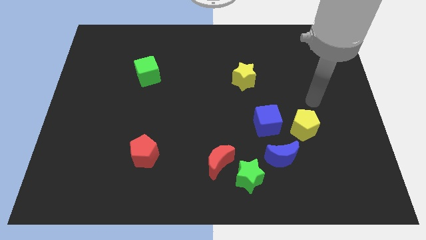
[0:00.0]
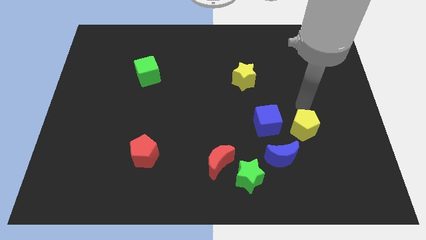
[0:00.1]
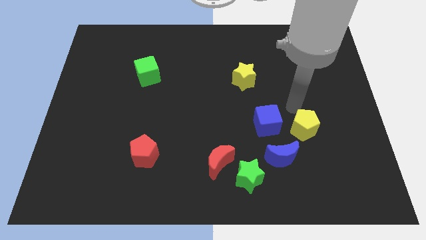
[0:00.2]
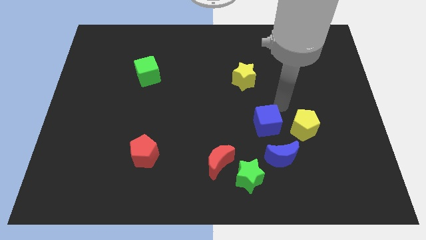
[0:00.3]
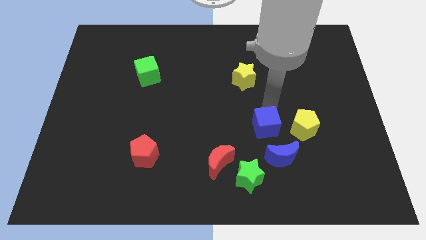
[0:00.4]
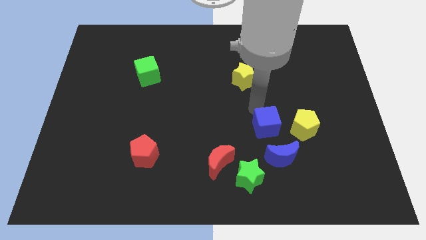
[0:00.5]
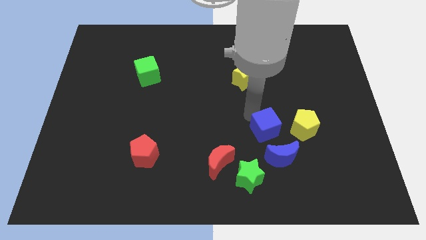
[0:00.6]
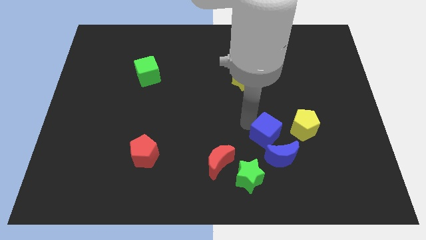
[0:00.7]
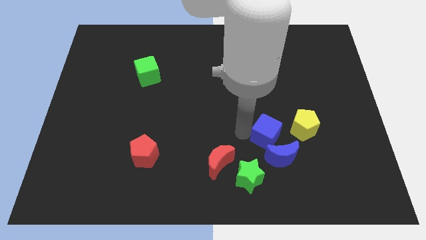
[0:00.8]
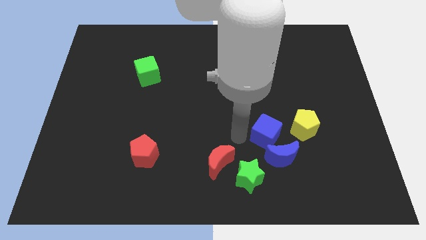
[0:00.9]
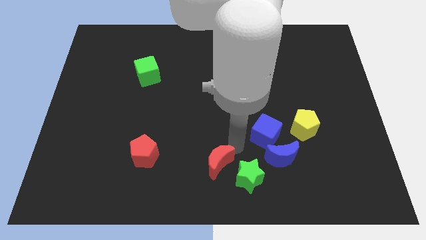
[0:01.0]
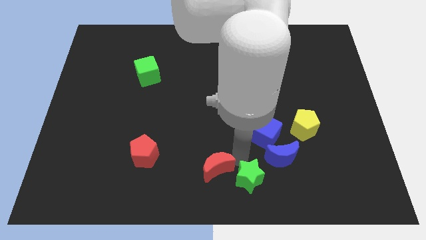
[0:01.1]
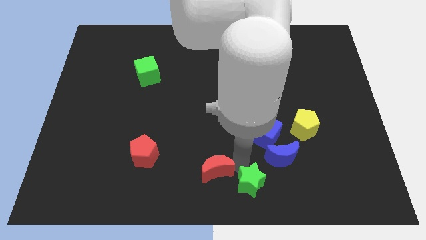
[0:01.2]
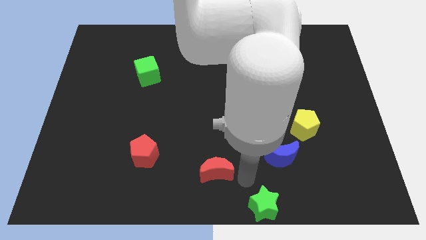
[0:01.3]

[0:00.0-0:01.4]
move the red moon away from the green star

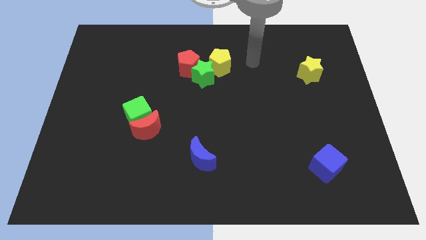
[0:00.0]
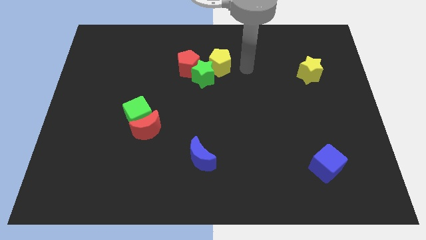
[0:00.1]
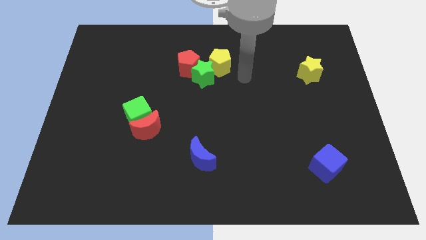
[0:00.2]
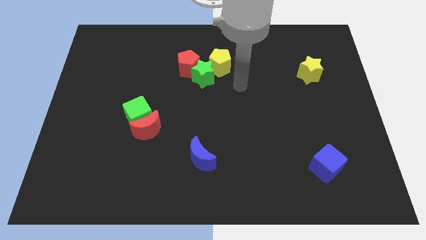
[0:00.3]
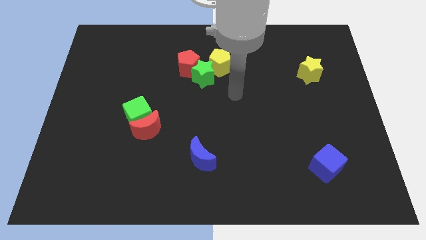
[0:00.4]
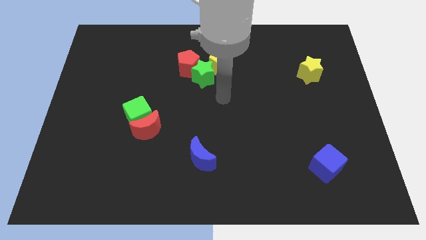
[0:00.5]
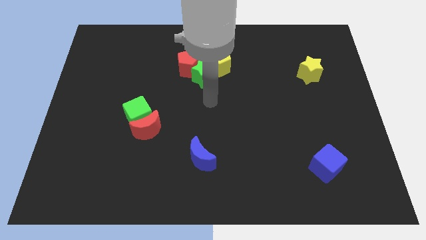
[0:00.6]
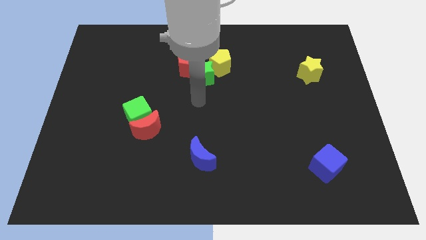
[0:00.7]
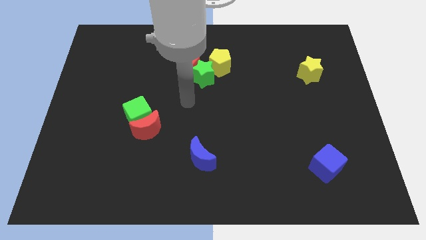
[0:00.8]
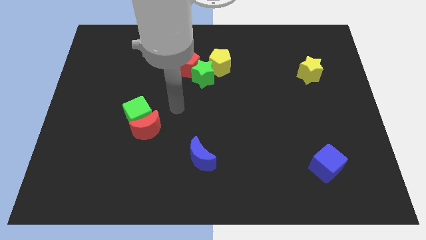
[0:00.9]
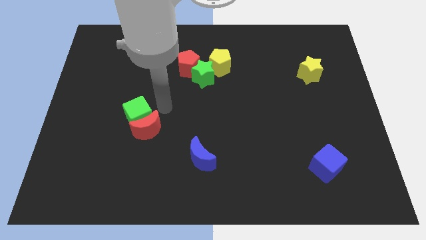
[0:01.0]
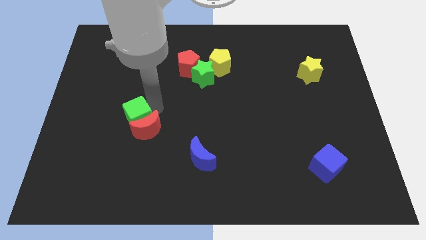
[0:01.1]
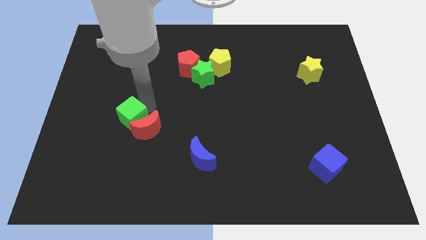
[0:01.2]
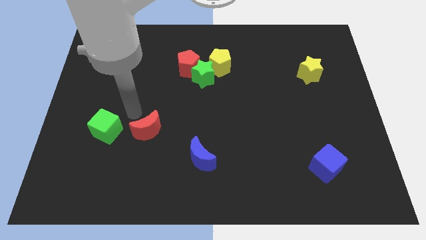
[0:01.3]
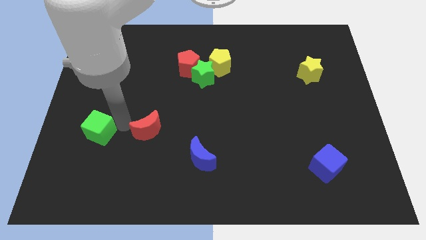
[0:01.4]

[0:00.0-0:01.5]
separate the red moon from the green cube

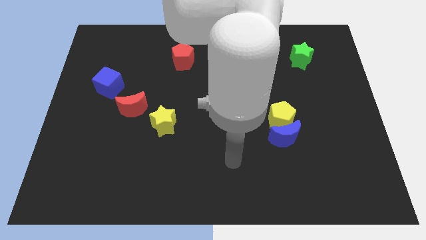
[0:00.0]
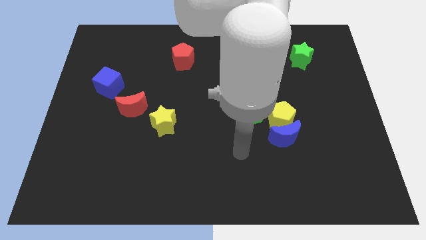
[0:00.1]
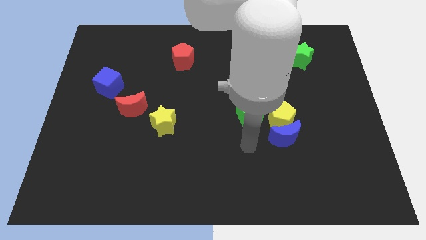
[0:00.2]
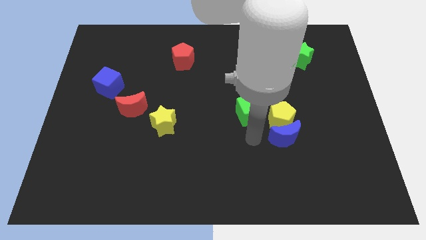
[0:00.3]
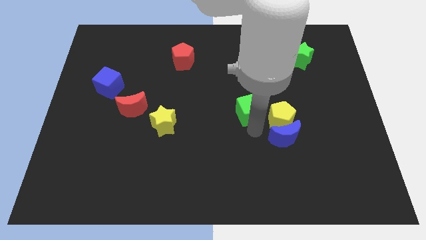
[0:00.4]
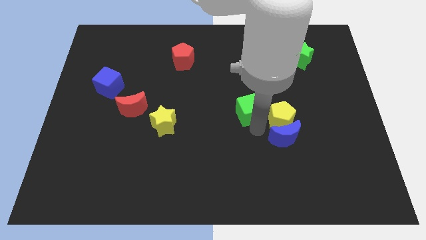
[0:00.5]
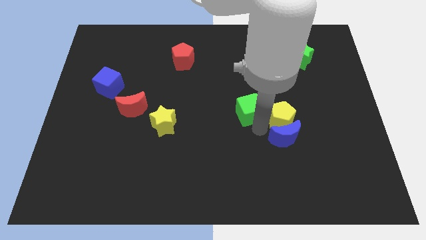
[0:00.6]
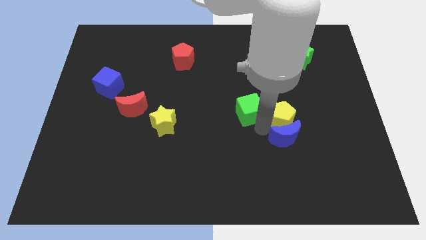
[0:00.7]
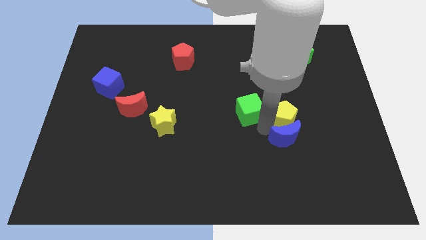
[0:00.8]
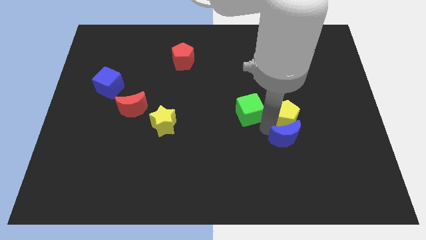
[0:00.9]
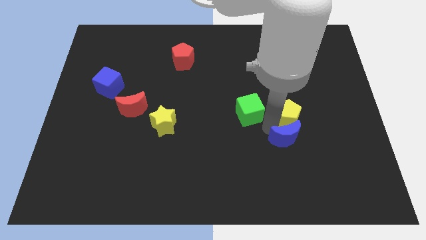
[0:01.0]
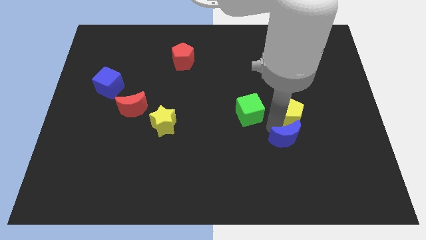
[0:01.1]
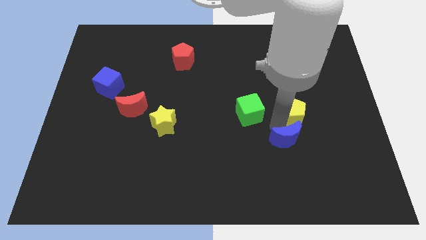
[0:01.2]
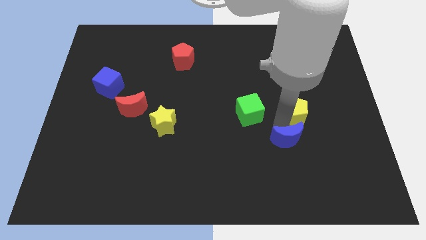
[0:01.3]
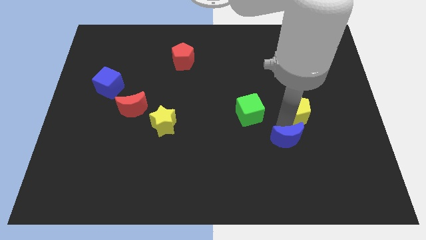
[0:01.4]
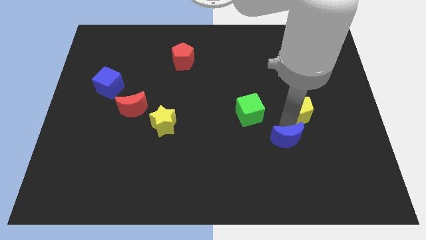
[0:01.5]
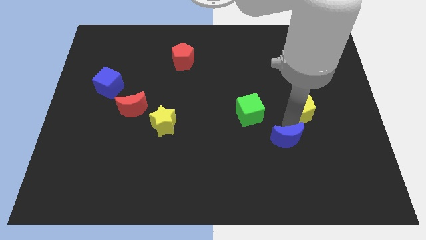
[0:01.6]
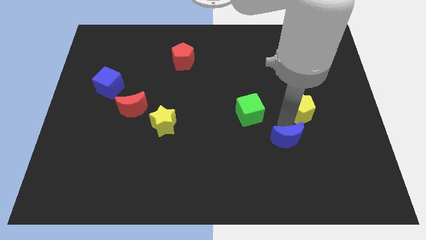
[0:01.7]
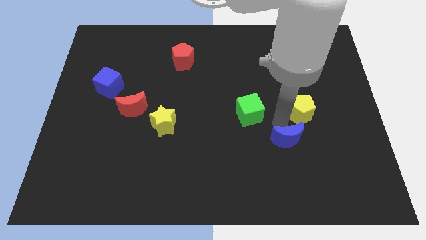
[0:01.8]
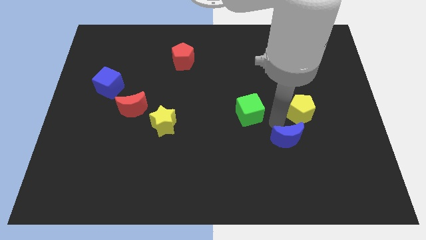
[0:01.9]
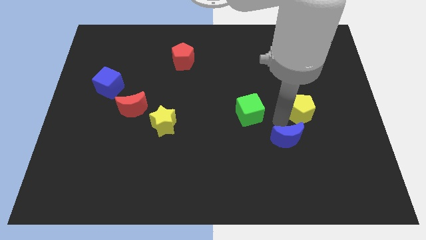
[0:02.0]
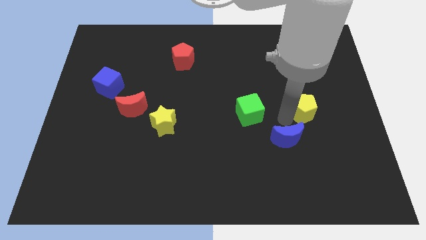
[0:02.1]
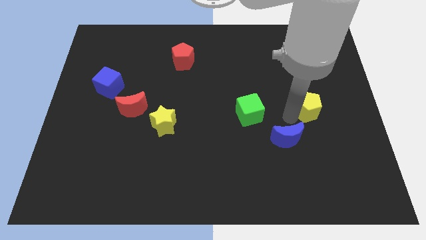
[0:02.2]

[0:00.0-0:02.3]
pull the yellow pentagon apart from the blue moon and green cube

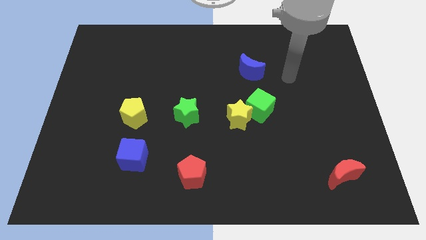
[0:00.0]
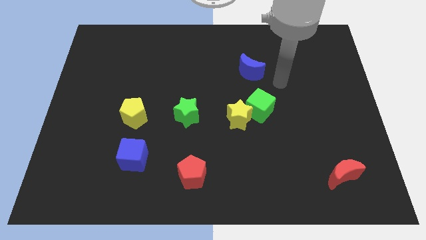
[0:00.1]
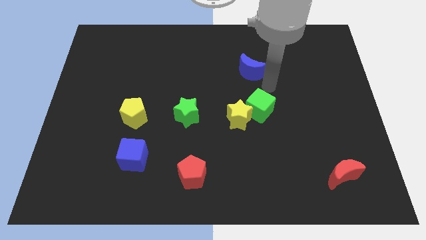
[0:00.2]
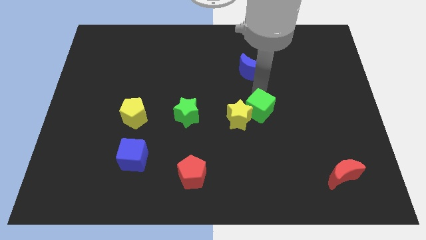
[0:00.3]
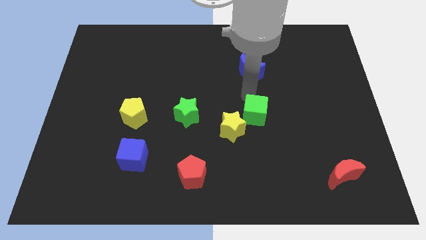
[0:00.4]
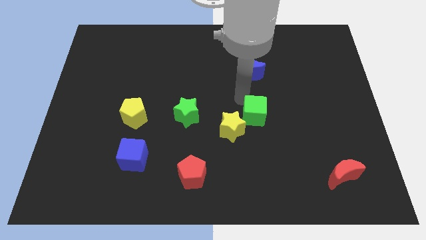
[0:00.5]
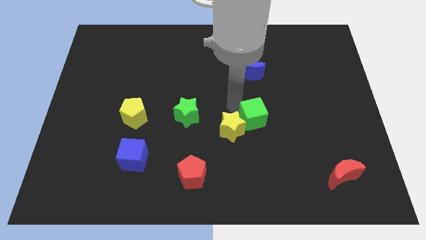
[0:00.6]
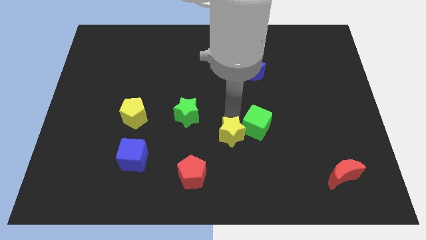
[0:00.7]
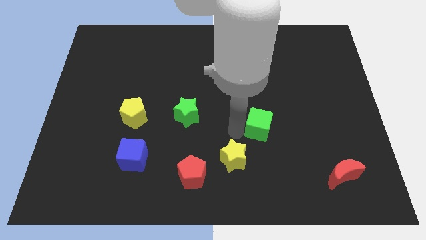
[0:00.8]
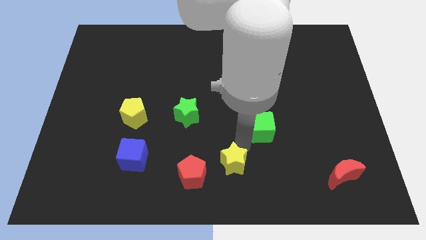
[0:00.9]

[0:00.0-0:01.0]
separate the green cube from the yellow star

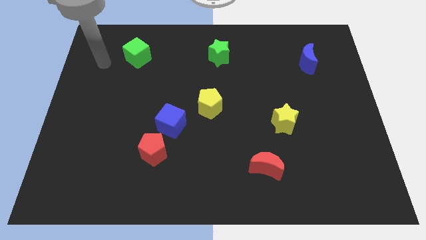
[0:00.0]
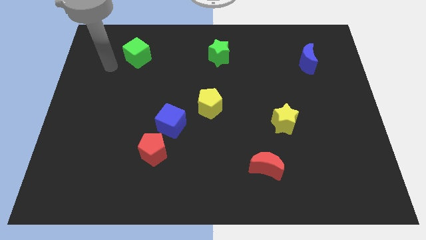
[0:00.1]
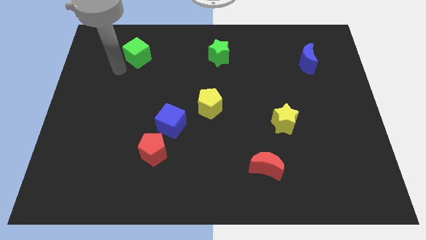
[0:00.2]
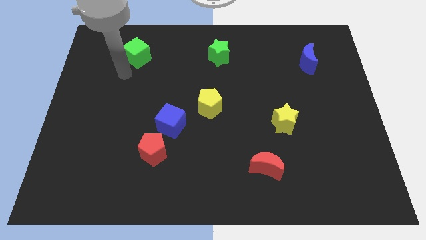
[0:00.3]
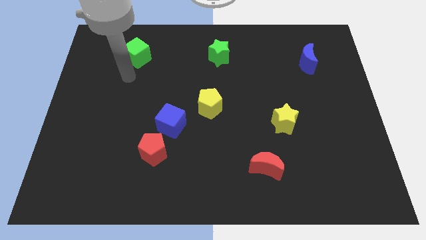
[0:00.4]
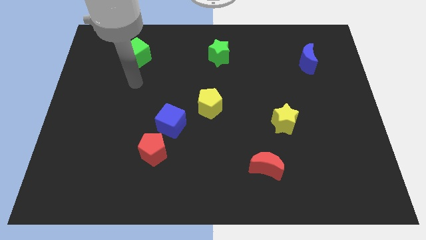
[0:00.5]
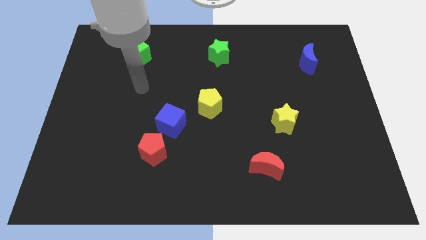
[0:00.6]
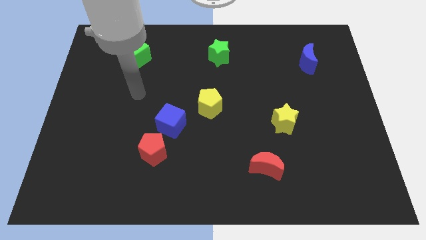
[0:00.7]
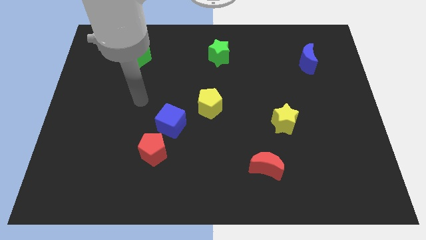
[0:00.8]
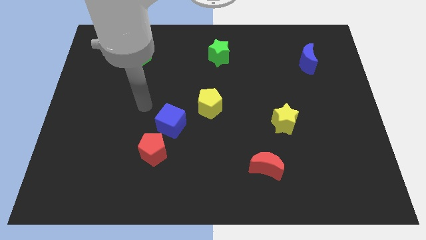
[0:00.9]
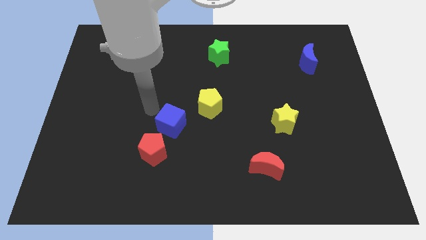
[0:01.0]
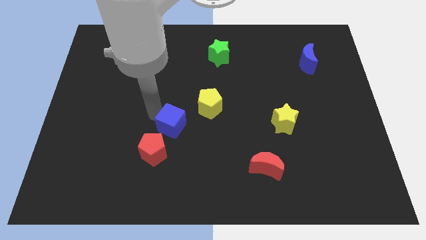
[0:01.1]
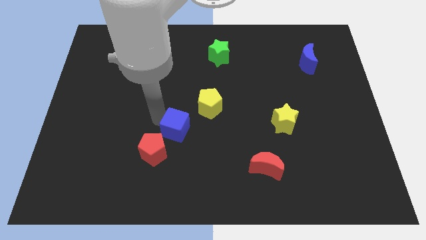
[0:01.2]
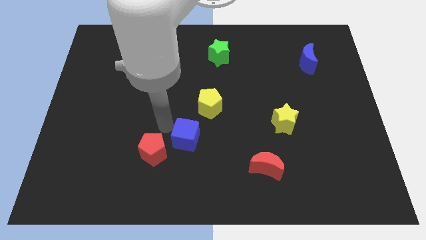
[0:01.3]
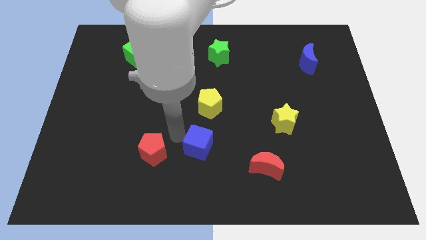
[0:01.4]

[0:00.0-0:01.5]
move the red pentagon away from the blue cube

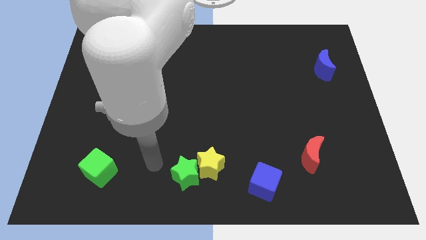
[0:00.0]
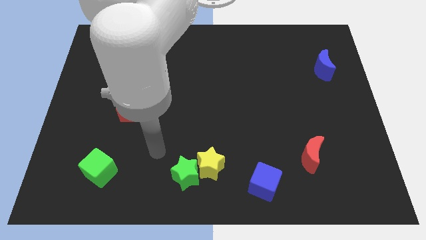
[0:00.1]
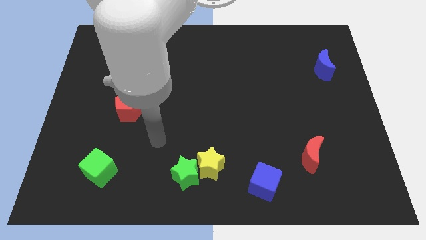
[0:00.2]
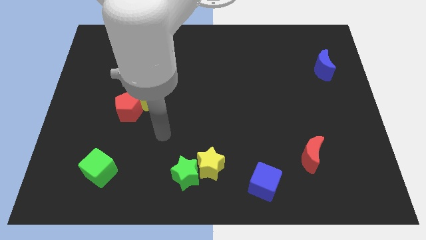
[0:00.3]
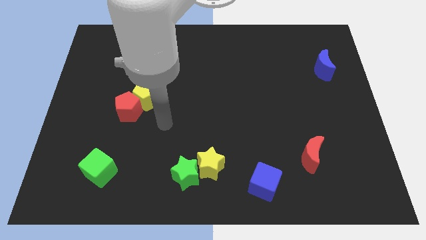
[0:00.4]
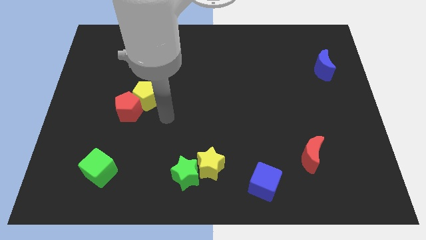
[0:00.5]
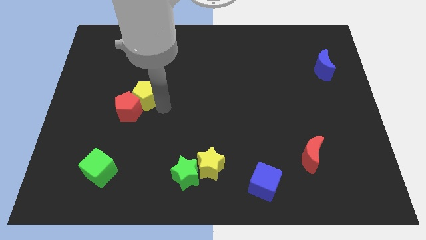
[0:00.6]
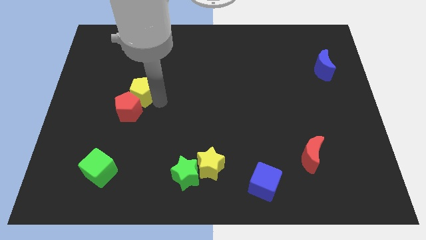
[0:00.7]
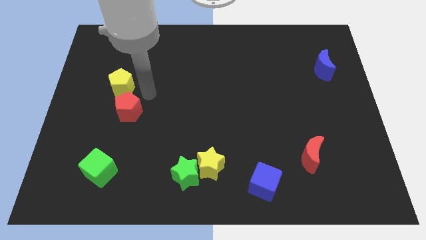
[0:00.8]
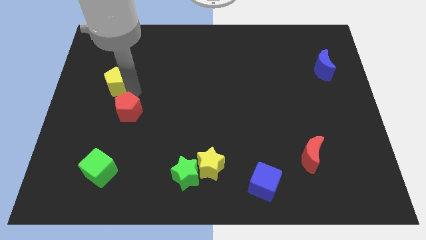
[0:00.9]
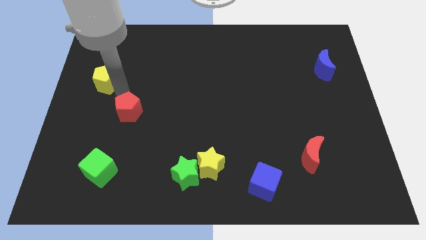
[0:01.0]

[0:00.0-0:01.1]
move the red pentagon away from the yellow pentagon

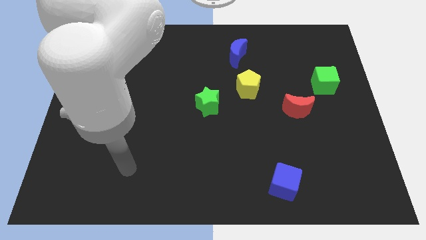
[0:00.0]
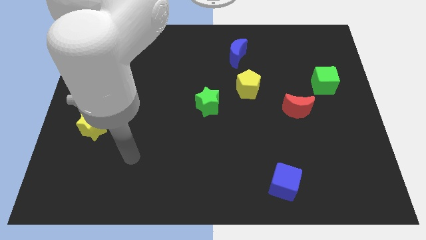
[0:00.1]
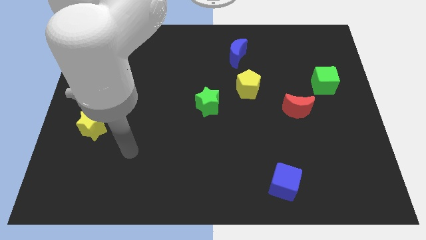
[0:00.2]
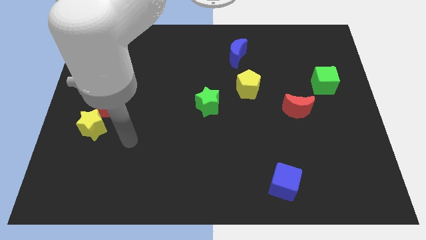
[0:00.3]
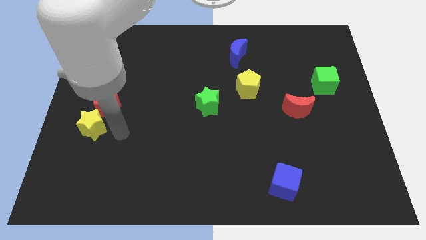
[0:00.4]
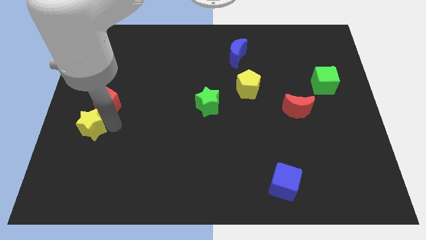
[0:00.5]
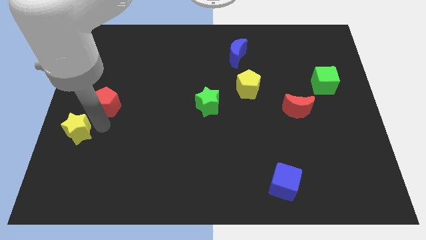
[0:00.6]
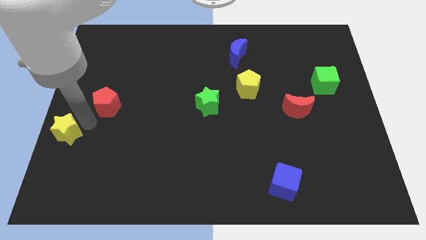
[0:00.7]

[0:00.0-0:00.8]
pull the red pentagon apart from the yellow star
